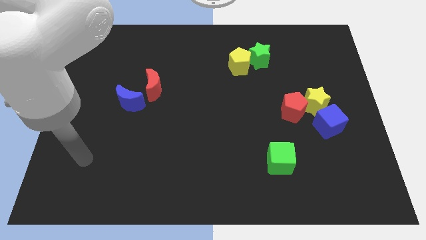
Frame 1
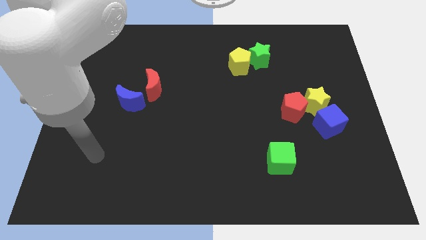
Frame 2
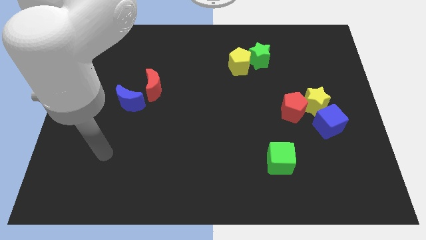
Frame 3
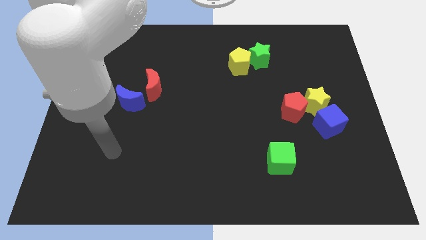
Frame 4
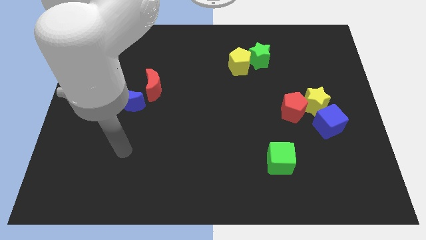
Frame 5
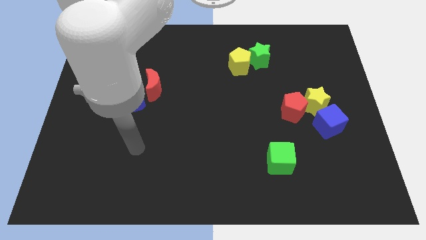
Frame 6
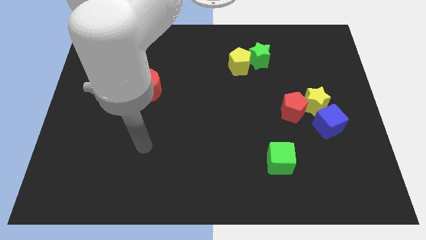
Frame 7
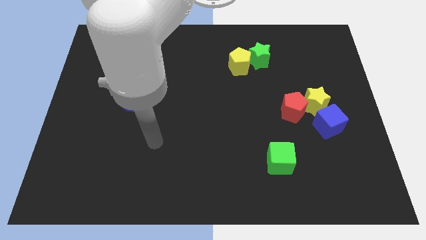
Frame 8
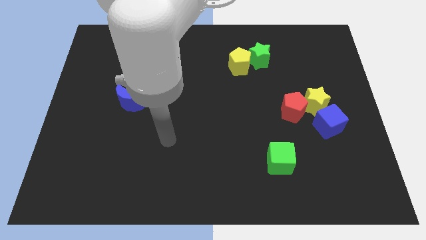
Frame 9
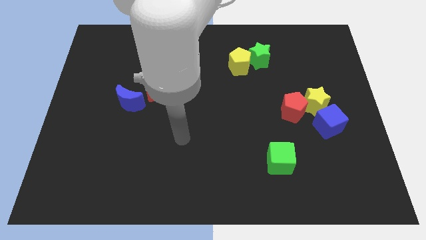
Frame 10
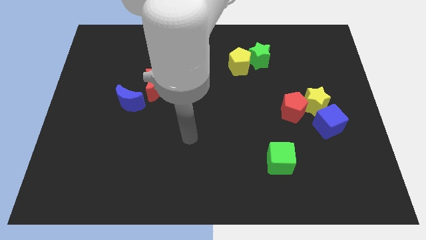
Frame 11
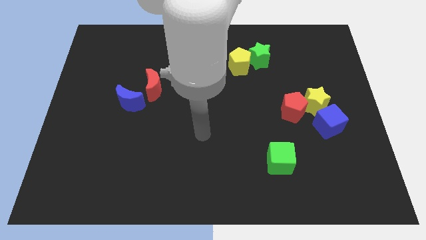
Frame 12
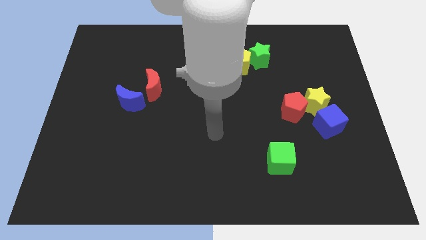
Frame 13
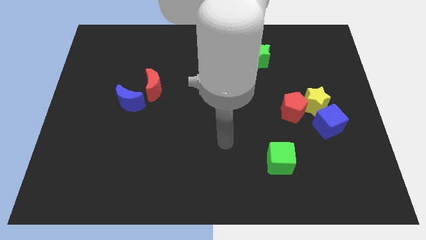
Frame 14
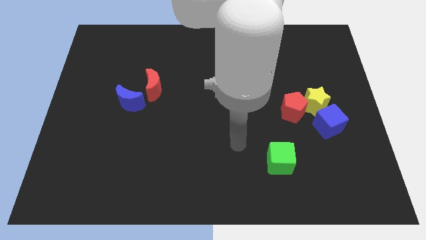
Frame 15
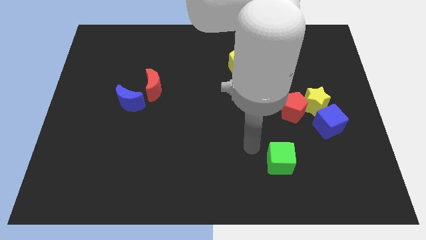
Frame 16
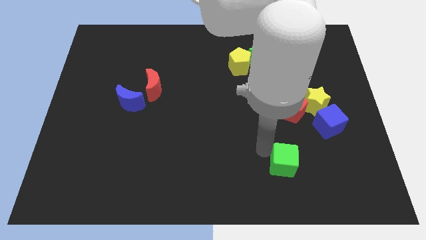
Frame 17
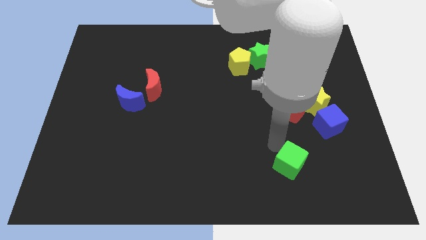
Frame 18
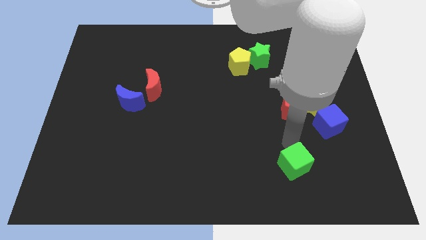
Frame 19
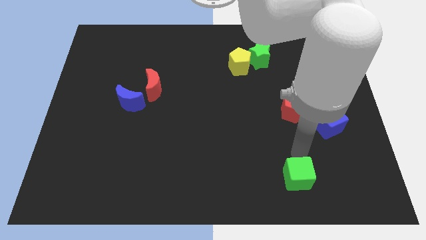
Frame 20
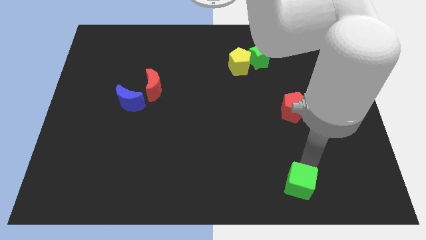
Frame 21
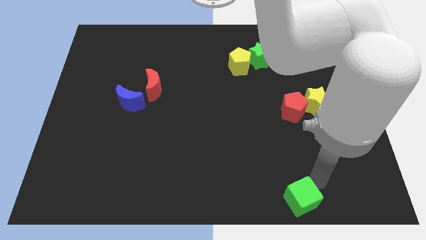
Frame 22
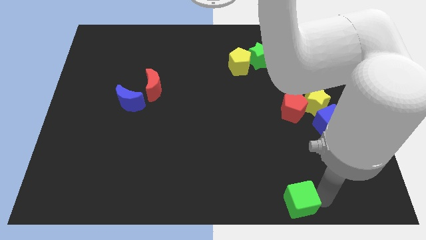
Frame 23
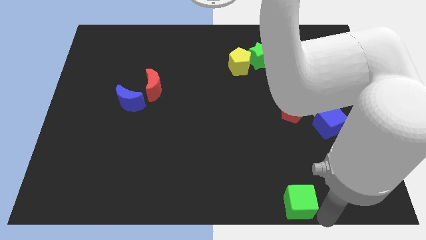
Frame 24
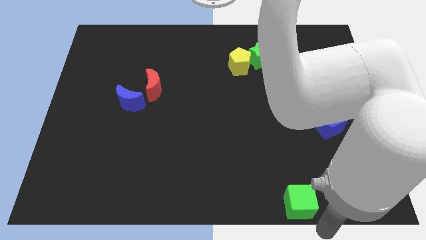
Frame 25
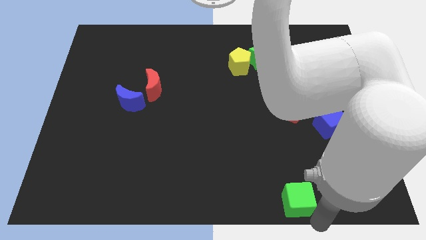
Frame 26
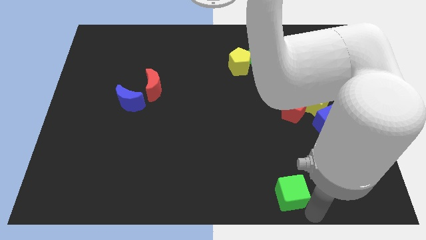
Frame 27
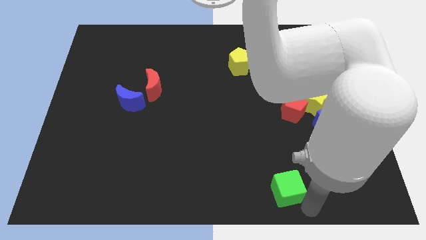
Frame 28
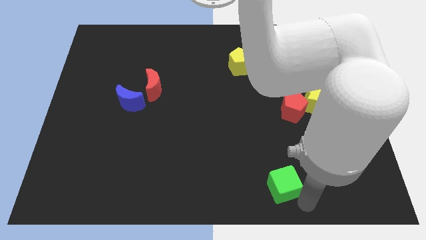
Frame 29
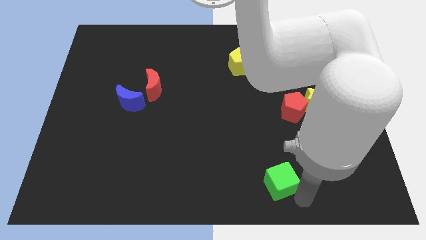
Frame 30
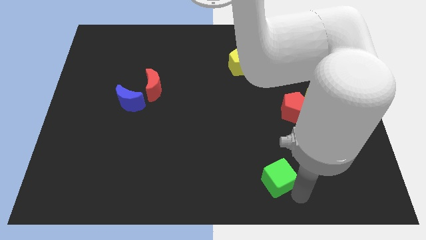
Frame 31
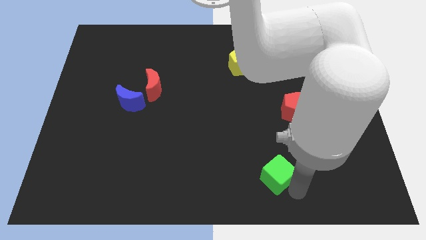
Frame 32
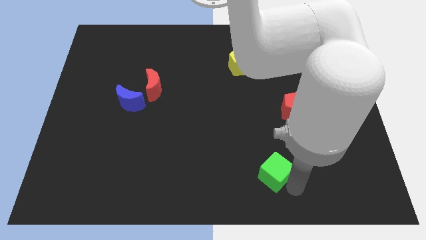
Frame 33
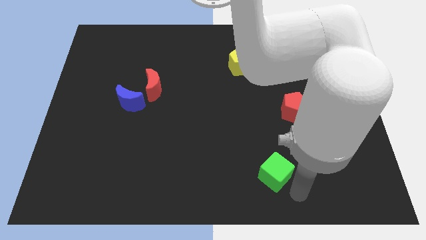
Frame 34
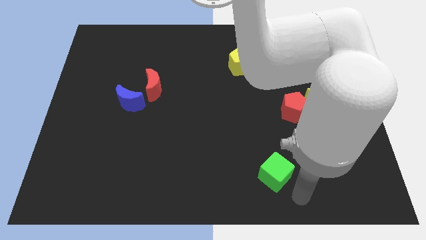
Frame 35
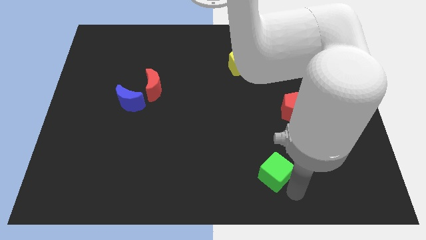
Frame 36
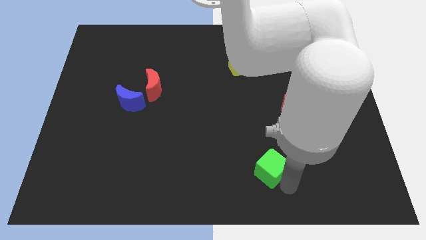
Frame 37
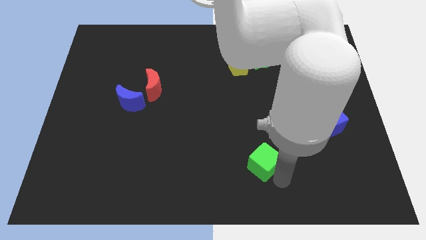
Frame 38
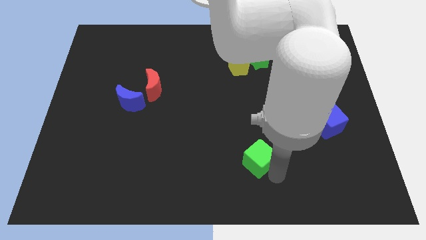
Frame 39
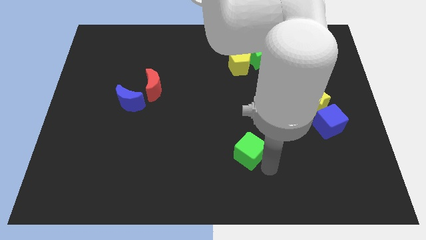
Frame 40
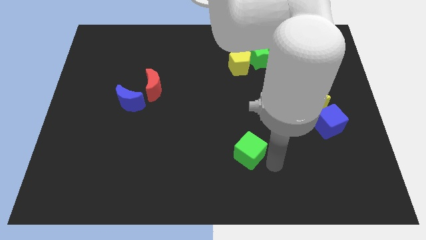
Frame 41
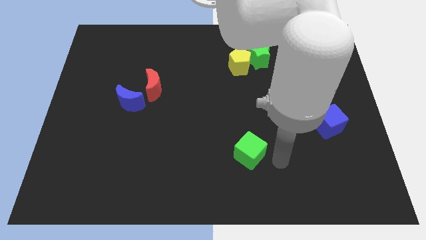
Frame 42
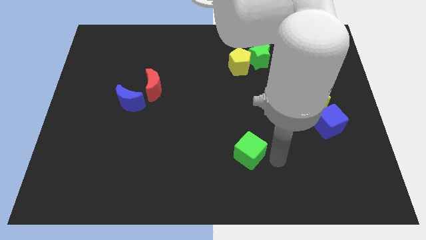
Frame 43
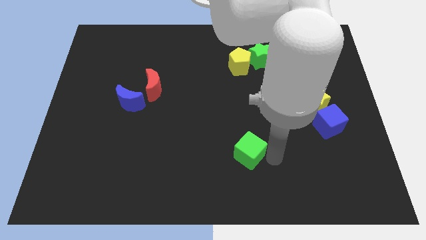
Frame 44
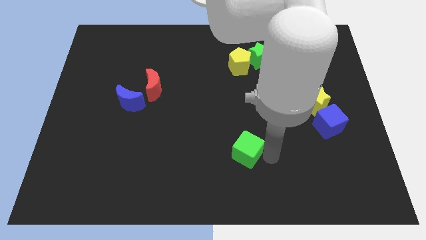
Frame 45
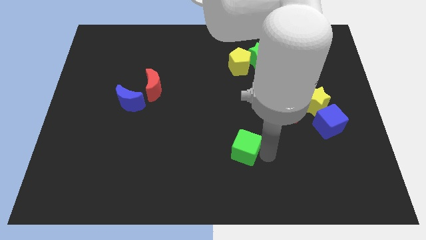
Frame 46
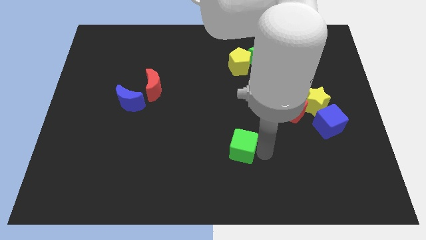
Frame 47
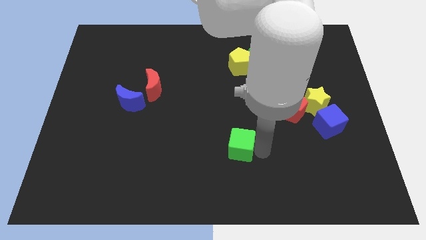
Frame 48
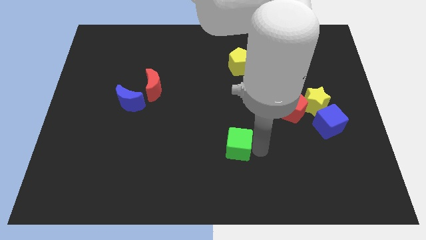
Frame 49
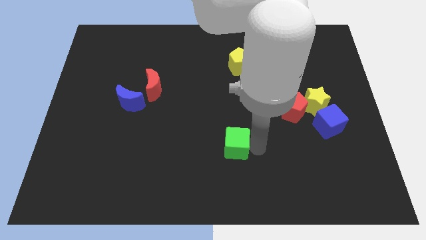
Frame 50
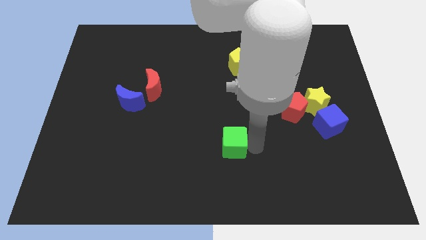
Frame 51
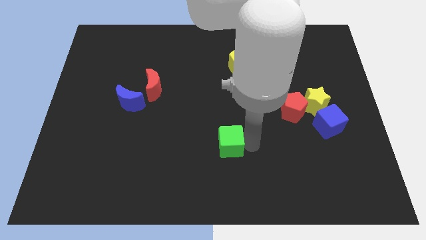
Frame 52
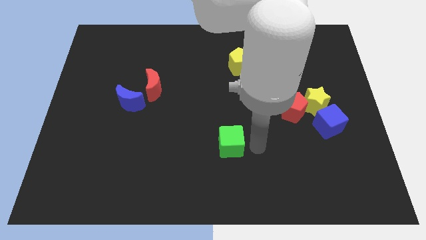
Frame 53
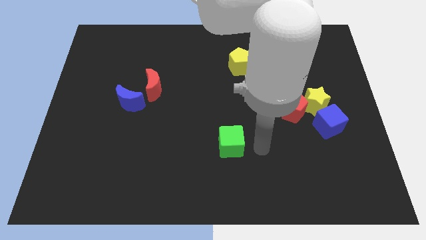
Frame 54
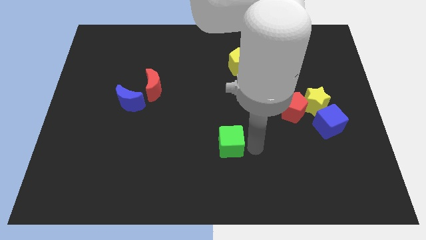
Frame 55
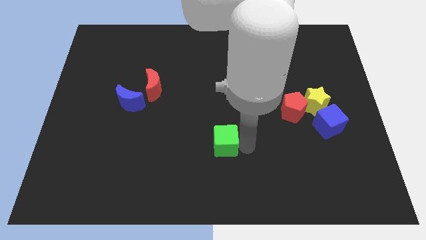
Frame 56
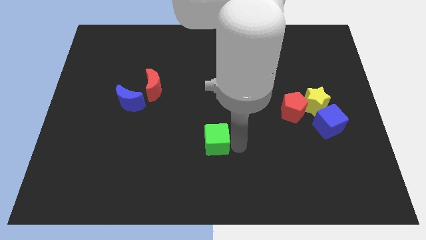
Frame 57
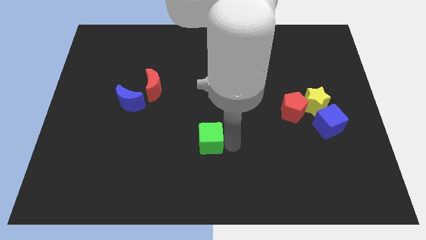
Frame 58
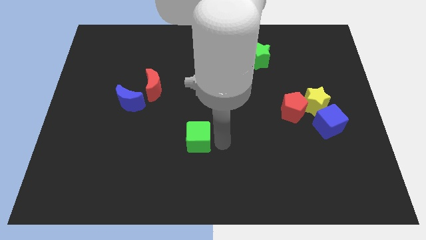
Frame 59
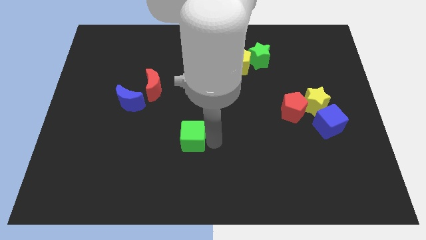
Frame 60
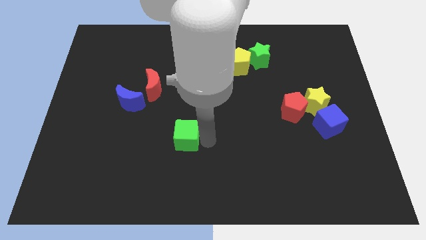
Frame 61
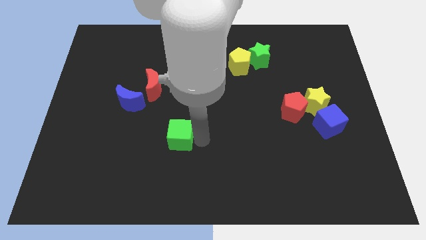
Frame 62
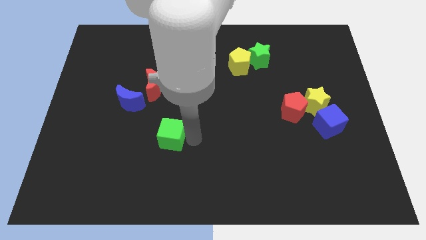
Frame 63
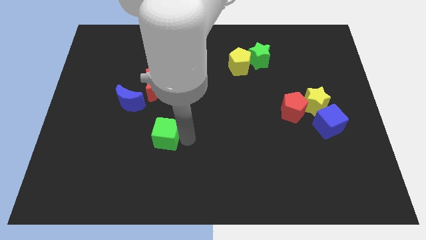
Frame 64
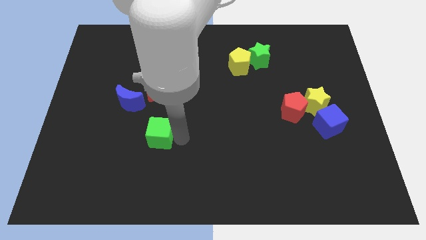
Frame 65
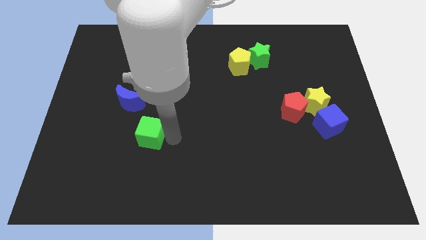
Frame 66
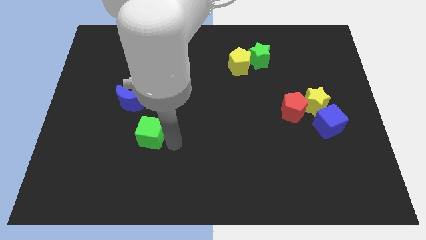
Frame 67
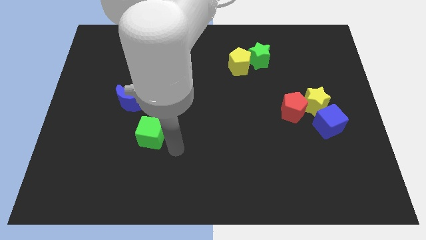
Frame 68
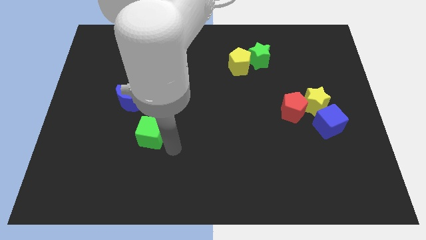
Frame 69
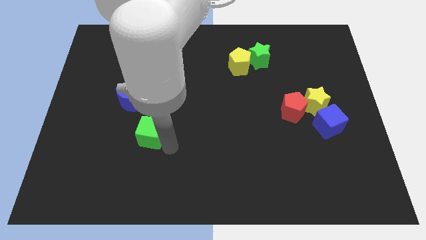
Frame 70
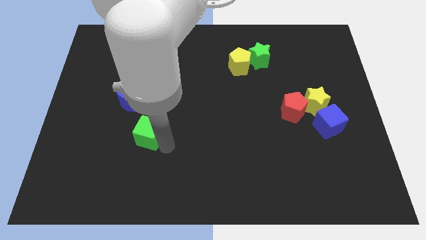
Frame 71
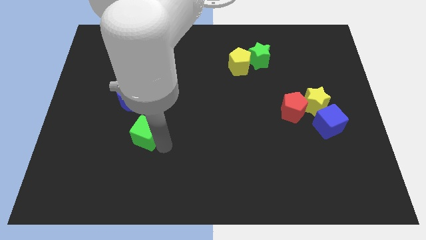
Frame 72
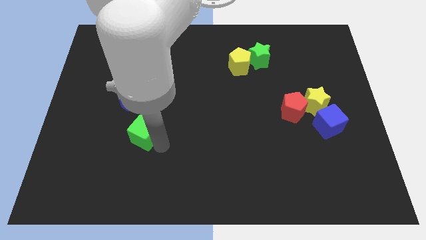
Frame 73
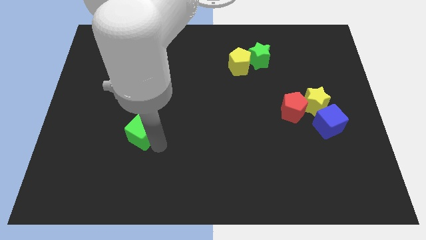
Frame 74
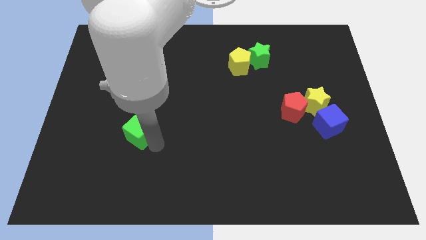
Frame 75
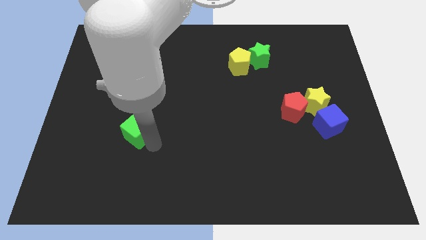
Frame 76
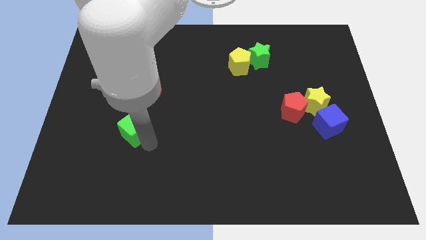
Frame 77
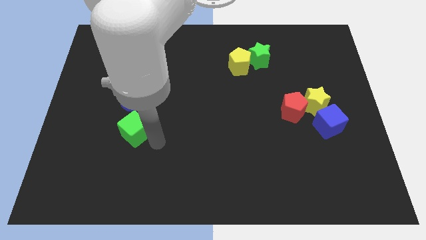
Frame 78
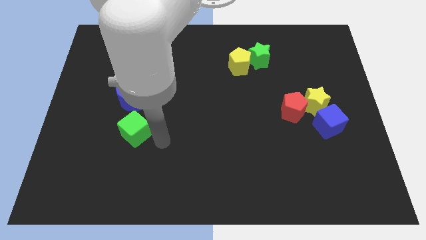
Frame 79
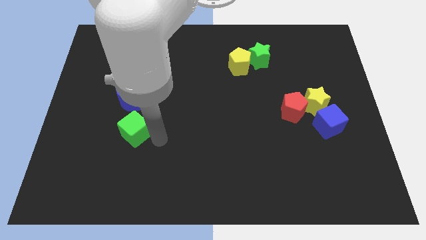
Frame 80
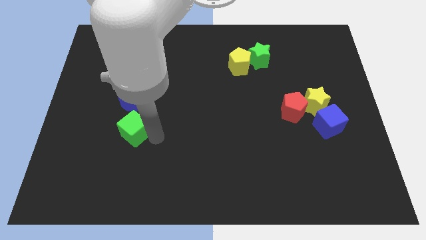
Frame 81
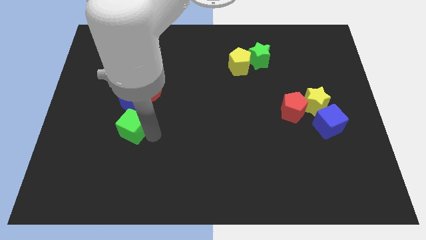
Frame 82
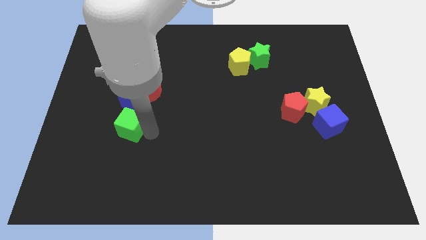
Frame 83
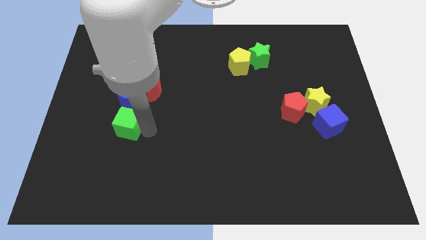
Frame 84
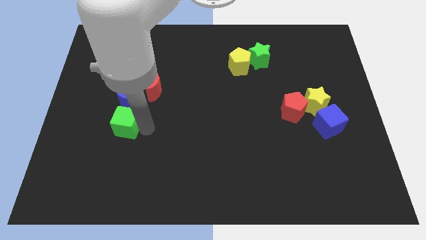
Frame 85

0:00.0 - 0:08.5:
push the green cube to the bottom left of the blue moon
